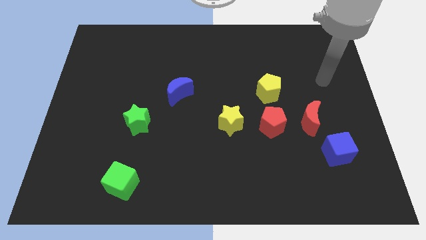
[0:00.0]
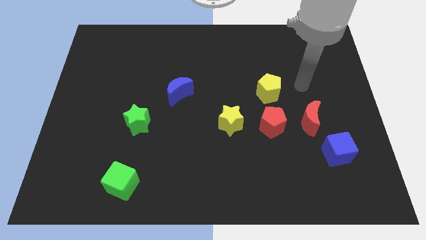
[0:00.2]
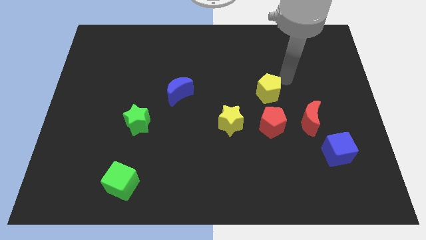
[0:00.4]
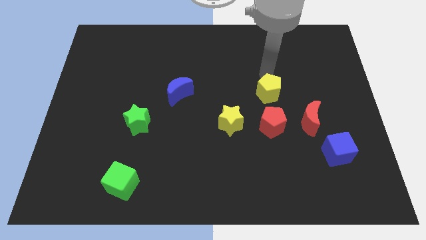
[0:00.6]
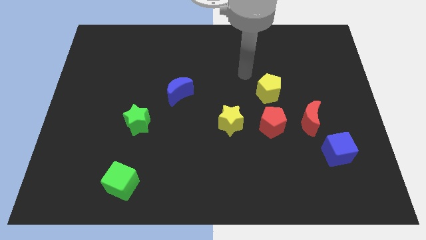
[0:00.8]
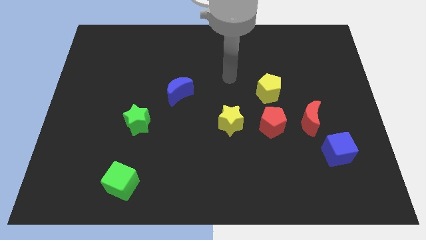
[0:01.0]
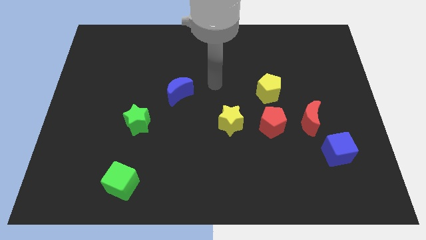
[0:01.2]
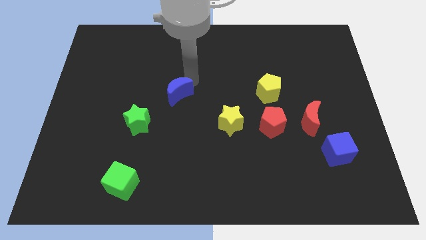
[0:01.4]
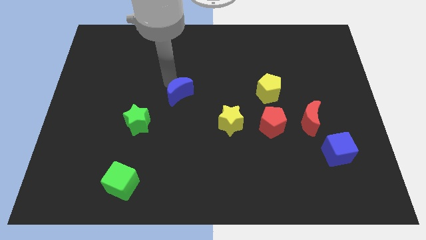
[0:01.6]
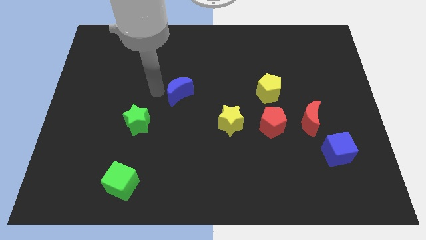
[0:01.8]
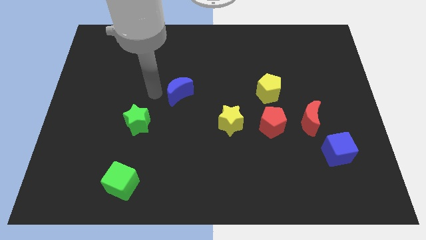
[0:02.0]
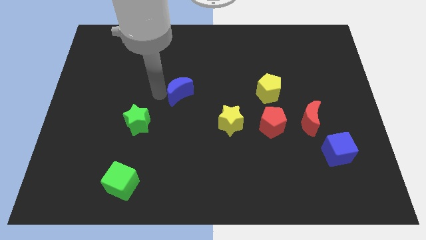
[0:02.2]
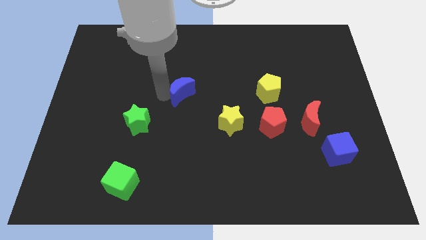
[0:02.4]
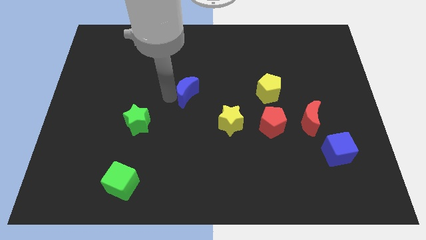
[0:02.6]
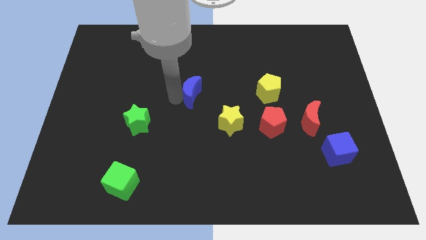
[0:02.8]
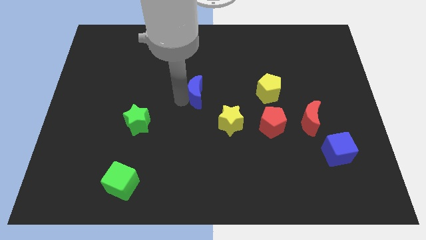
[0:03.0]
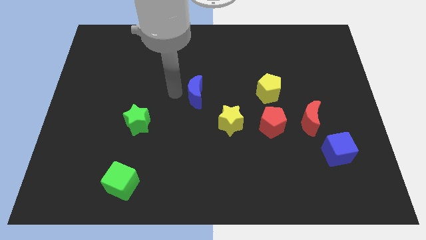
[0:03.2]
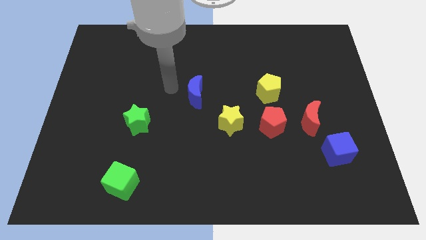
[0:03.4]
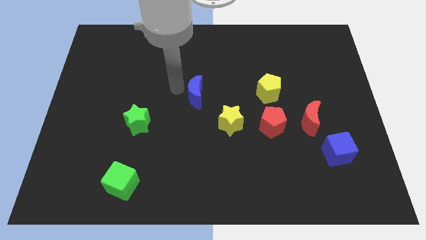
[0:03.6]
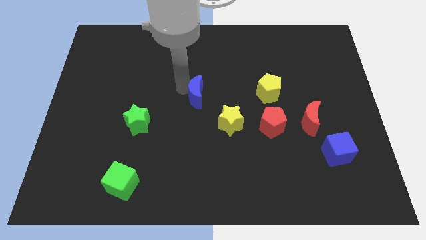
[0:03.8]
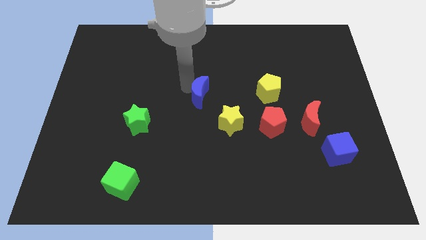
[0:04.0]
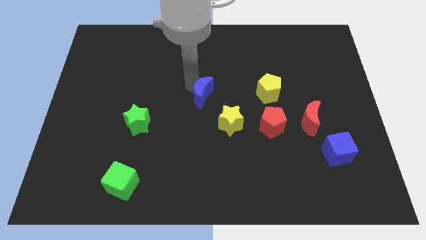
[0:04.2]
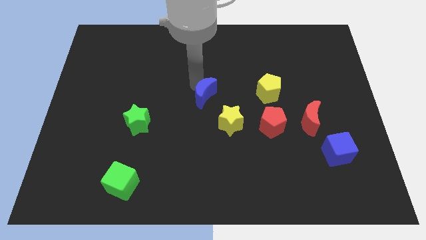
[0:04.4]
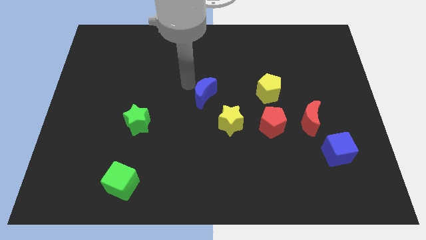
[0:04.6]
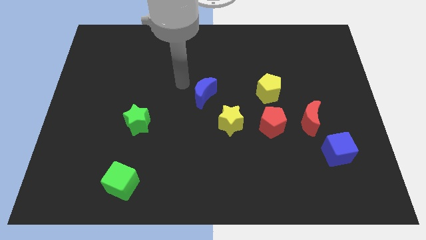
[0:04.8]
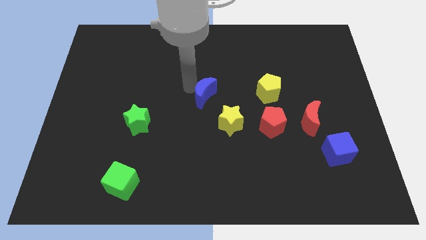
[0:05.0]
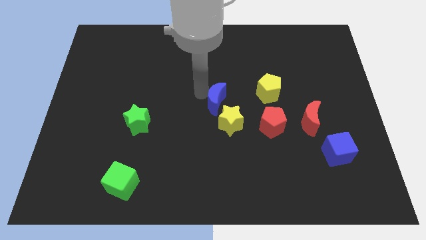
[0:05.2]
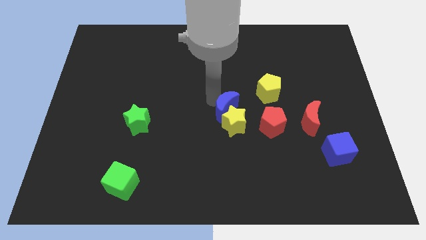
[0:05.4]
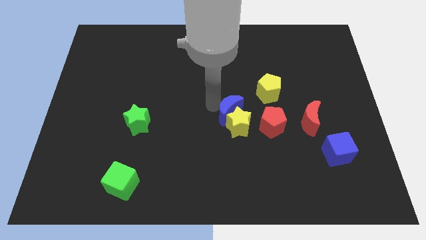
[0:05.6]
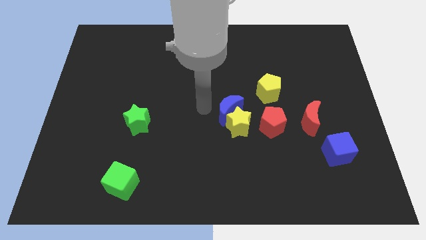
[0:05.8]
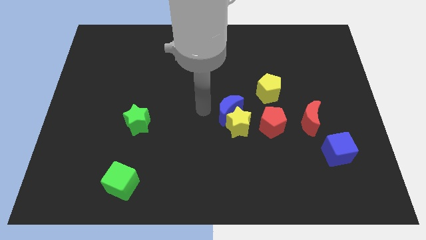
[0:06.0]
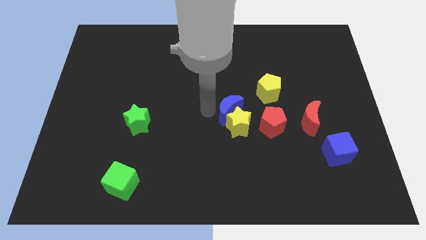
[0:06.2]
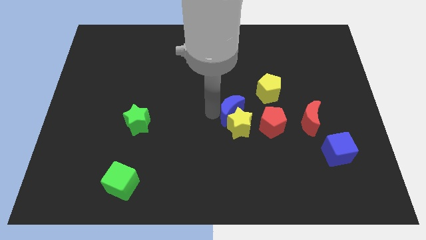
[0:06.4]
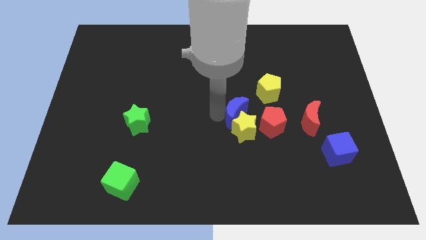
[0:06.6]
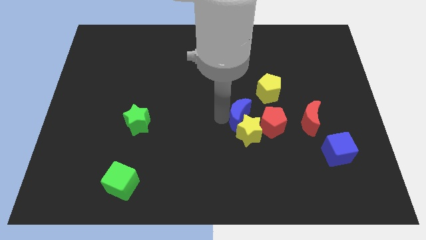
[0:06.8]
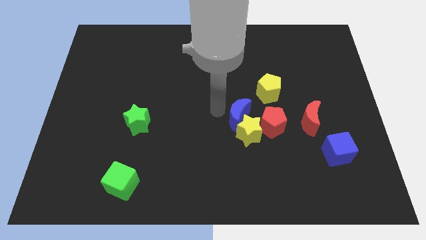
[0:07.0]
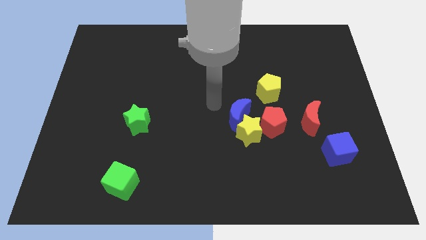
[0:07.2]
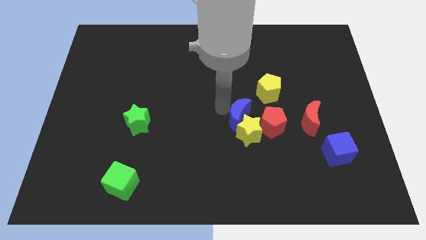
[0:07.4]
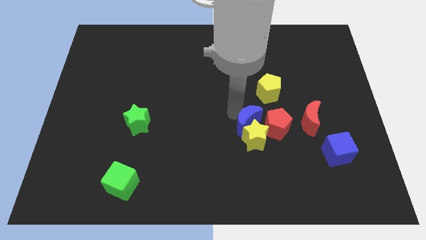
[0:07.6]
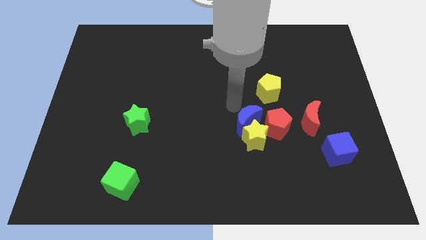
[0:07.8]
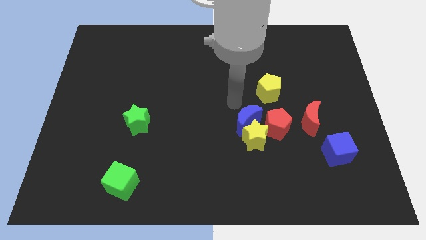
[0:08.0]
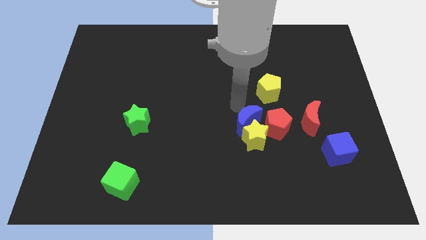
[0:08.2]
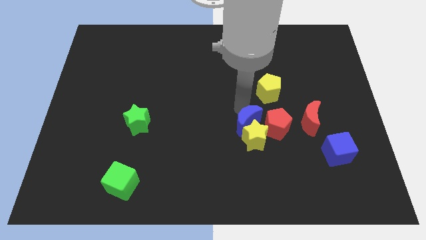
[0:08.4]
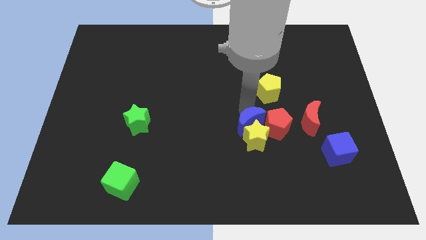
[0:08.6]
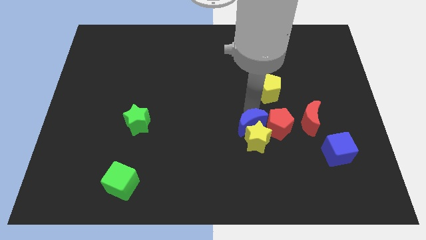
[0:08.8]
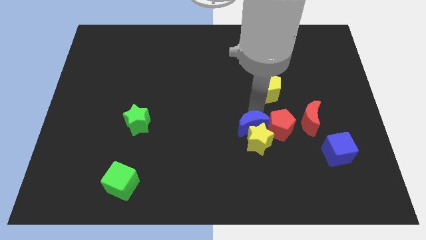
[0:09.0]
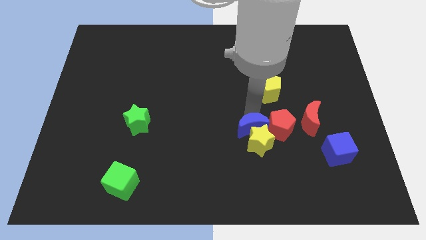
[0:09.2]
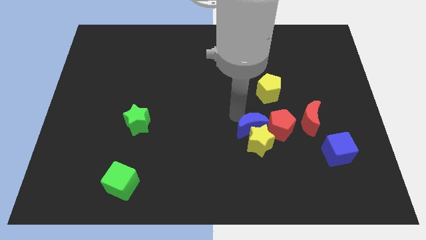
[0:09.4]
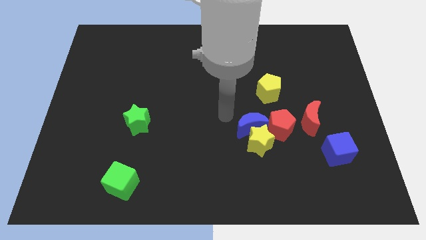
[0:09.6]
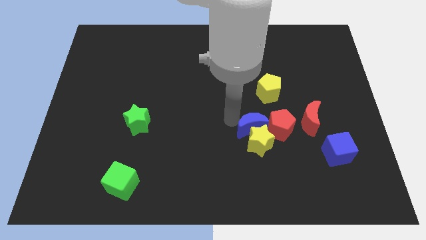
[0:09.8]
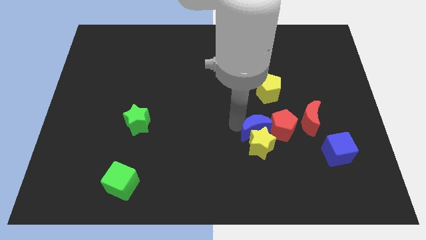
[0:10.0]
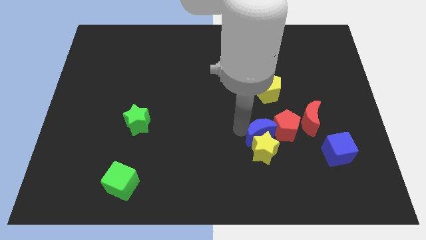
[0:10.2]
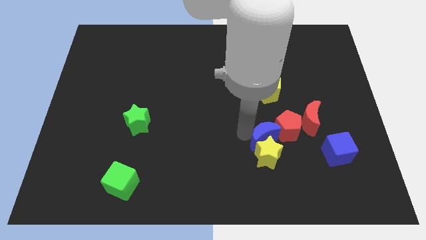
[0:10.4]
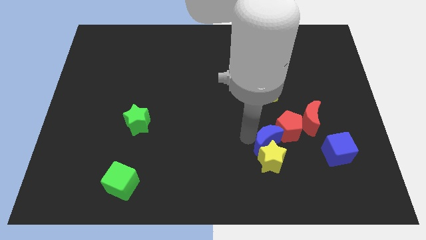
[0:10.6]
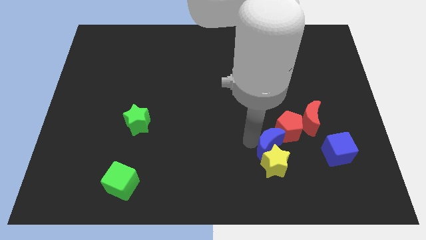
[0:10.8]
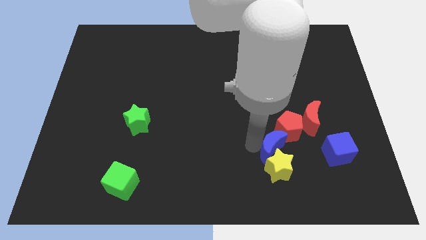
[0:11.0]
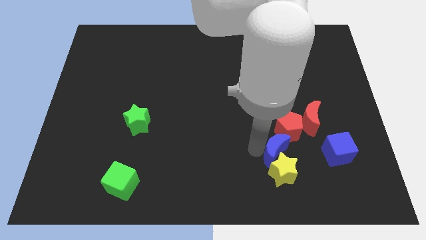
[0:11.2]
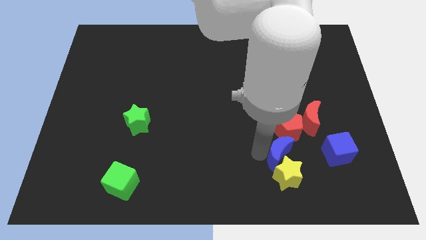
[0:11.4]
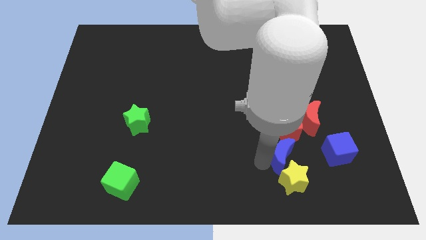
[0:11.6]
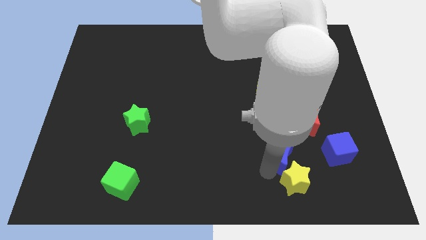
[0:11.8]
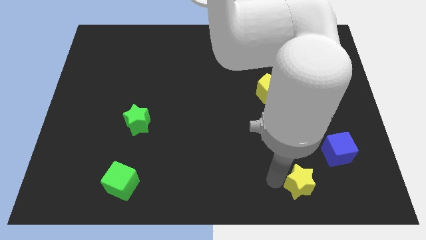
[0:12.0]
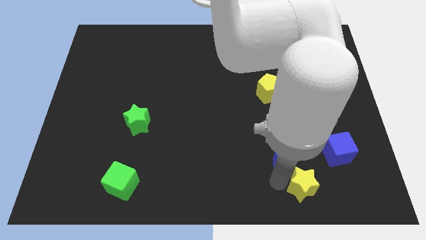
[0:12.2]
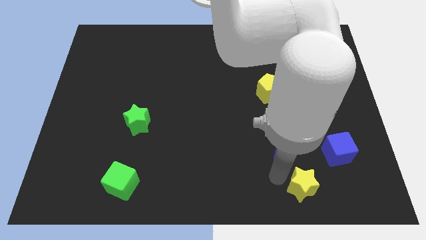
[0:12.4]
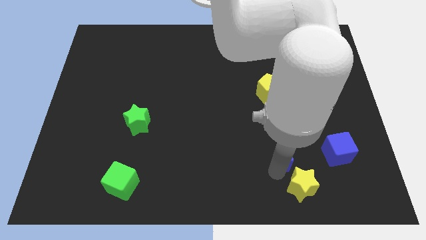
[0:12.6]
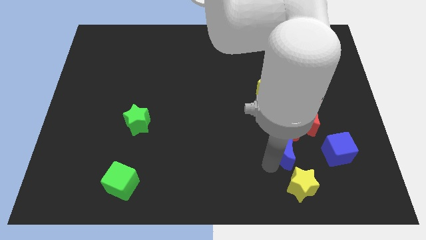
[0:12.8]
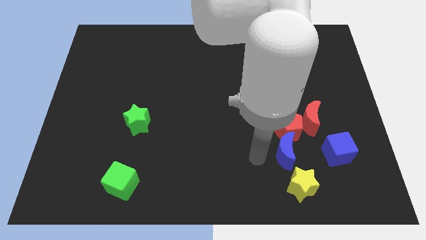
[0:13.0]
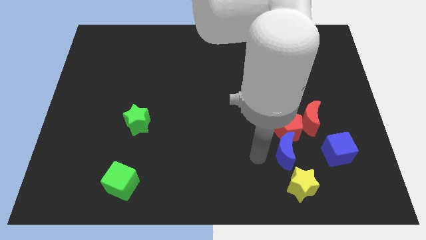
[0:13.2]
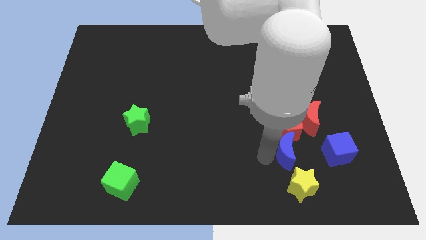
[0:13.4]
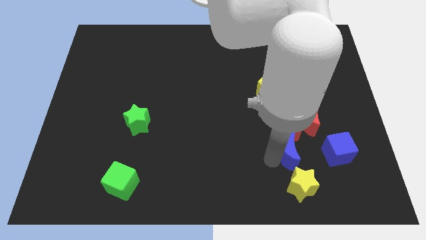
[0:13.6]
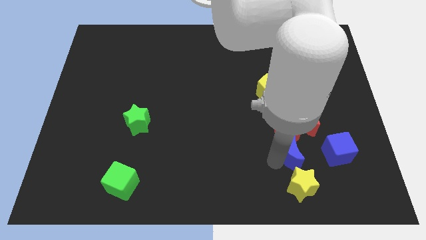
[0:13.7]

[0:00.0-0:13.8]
push the blue moon to the bottom right of the red pentagon

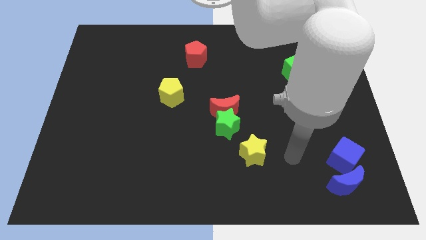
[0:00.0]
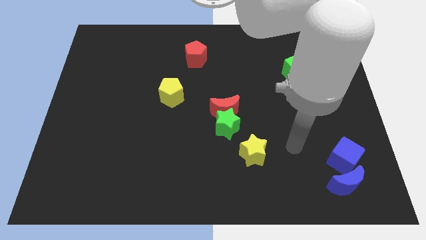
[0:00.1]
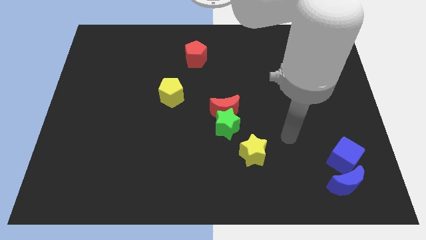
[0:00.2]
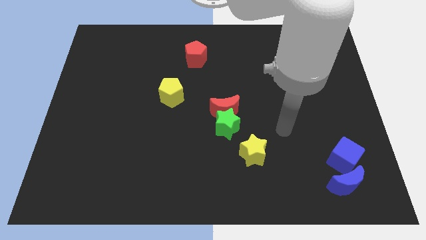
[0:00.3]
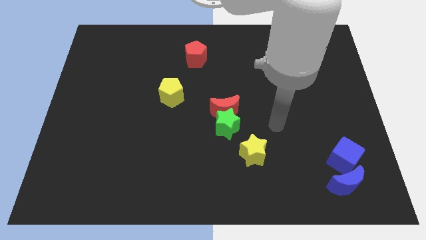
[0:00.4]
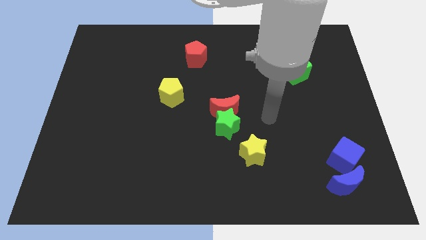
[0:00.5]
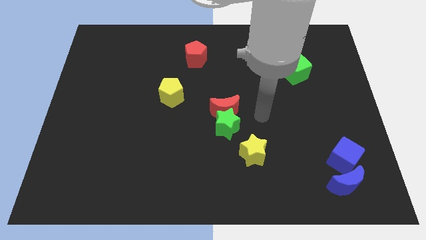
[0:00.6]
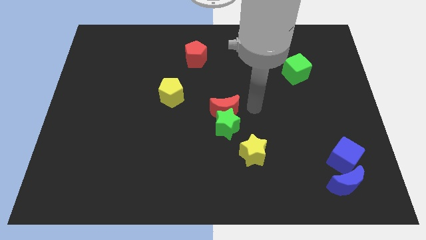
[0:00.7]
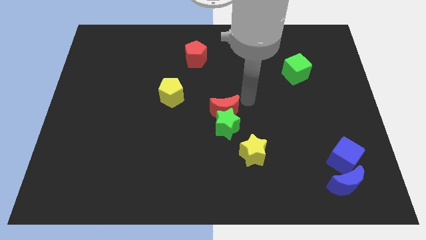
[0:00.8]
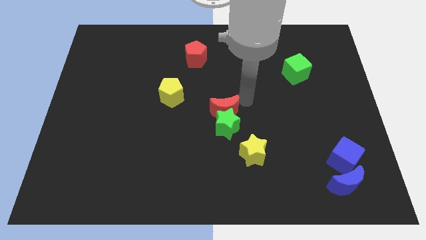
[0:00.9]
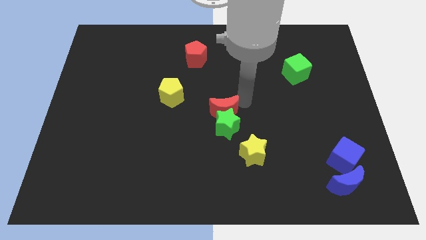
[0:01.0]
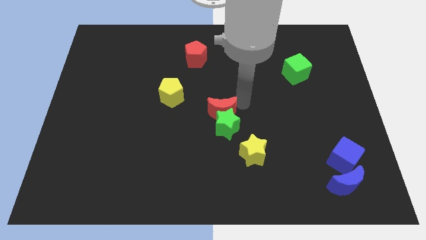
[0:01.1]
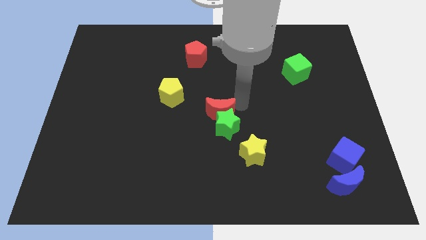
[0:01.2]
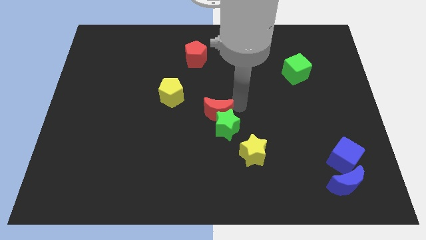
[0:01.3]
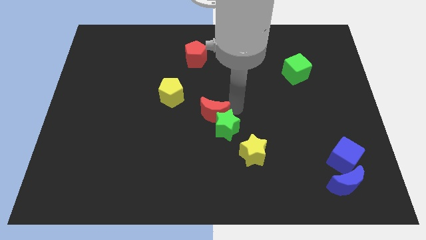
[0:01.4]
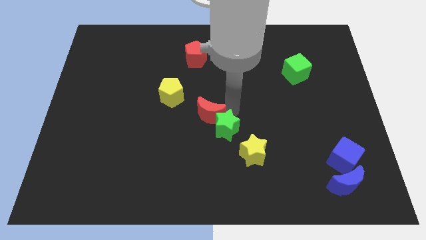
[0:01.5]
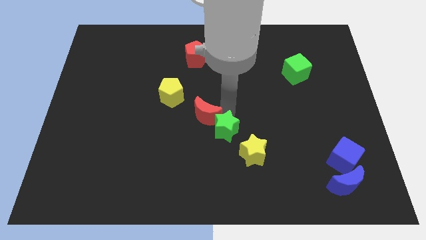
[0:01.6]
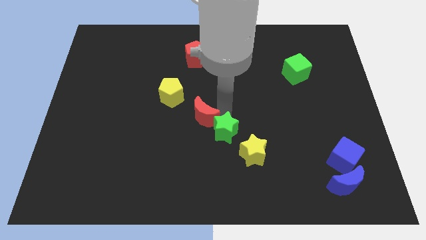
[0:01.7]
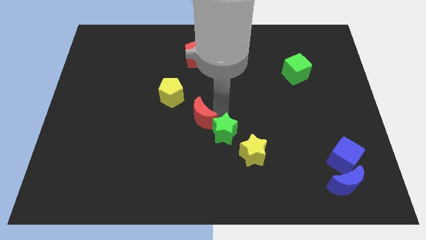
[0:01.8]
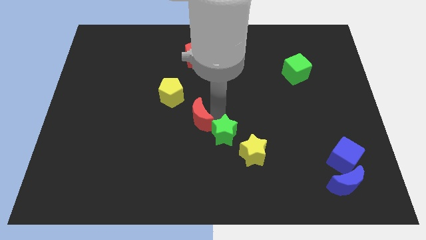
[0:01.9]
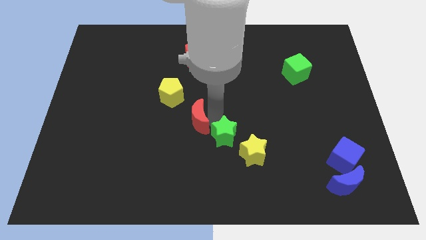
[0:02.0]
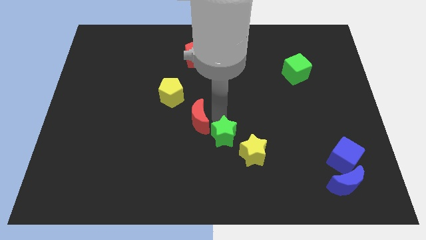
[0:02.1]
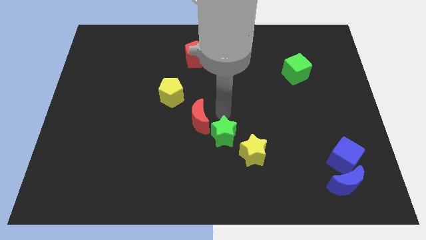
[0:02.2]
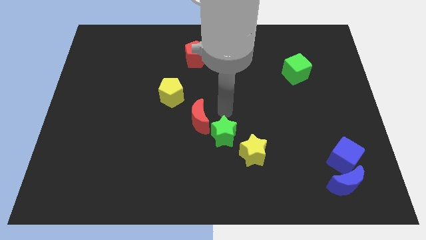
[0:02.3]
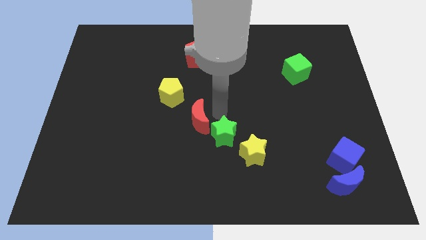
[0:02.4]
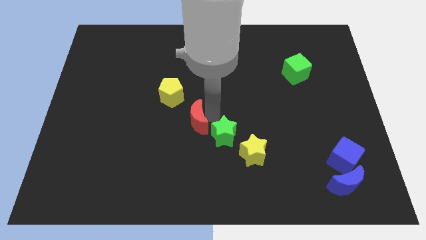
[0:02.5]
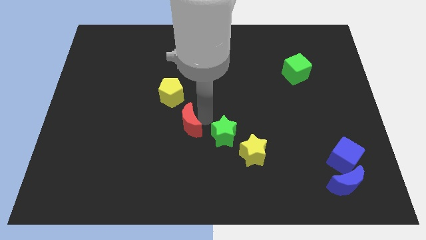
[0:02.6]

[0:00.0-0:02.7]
move the red moon below the yellow pentagon
